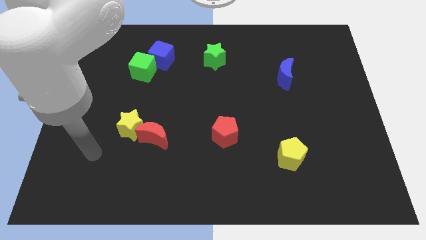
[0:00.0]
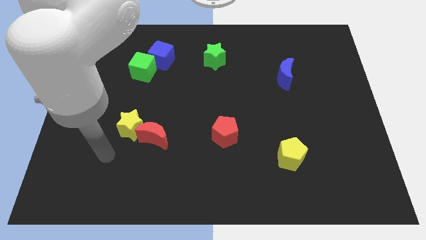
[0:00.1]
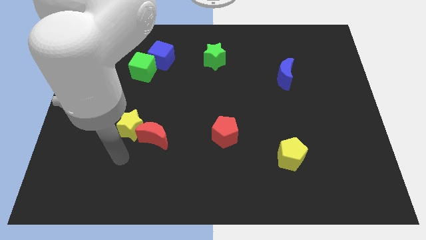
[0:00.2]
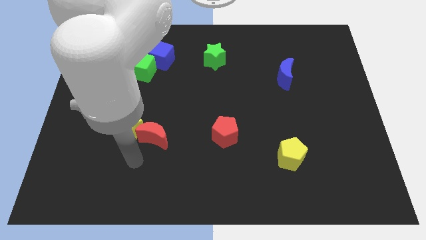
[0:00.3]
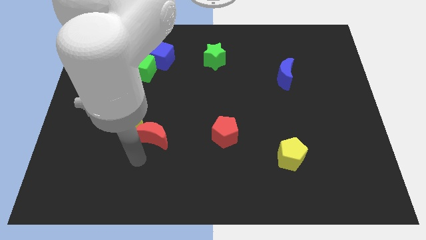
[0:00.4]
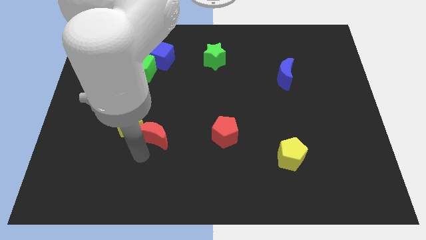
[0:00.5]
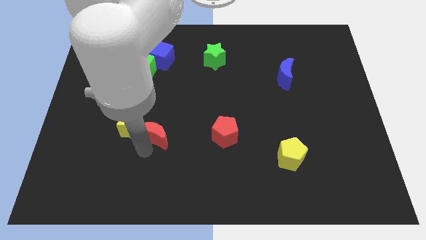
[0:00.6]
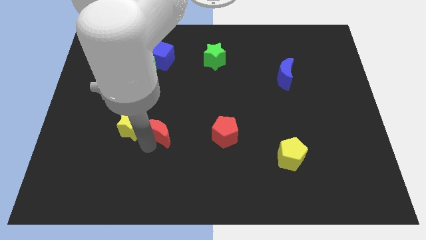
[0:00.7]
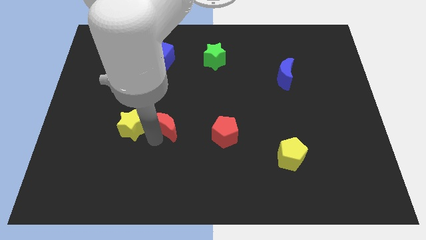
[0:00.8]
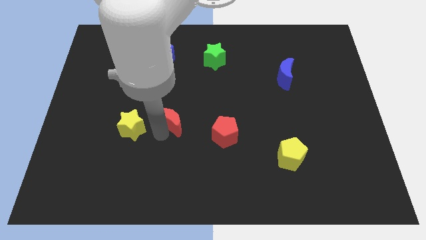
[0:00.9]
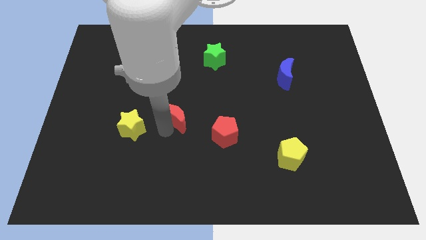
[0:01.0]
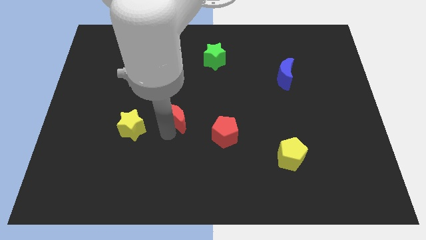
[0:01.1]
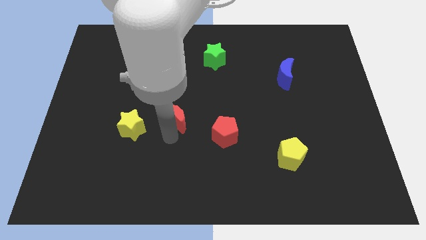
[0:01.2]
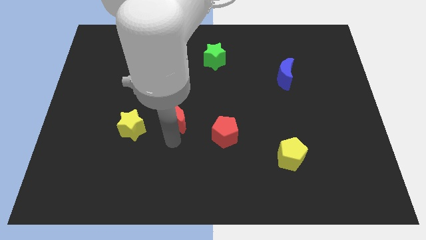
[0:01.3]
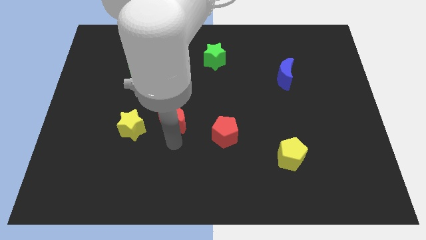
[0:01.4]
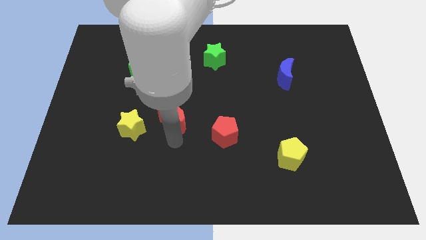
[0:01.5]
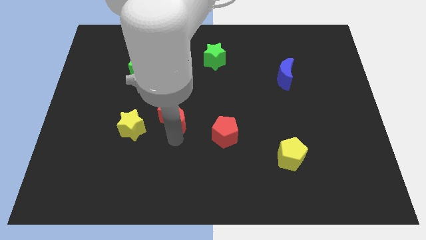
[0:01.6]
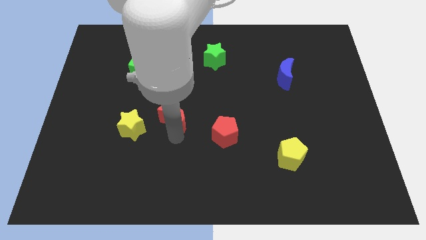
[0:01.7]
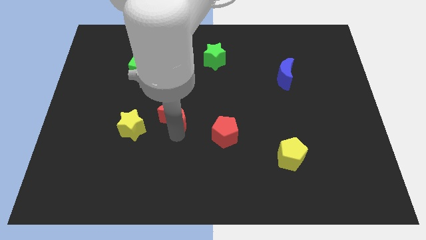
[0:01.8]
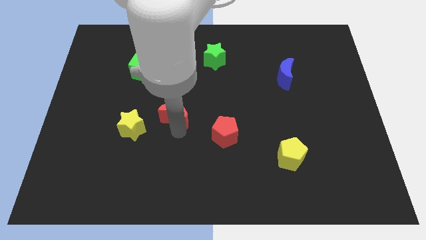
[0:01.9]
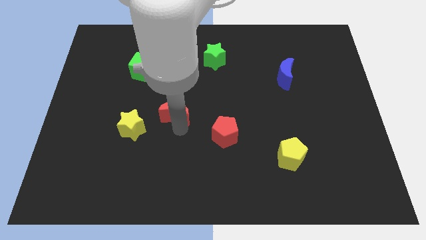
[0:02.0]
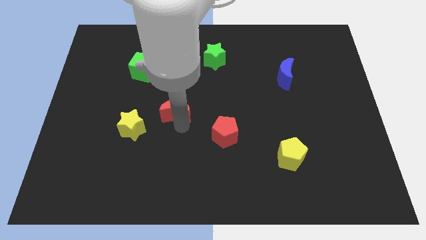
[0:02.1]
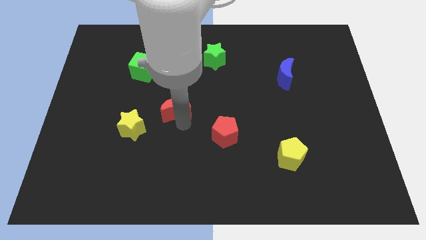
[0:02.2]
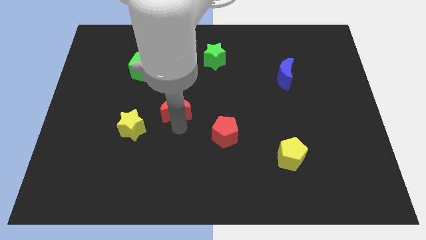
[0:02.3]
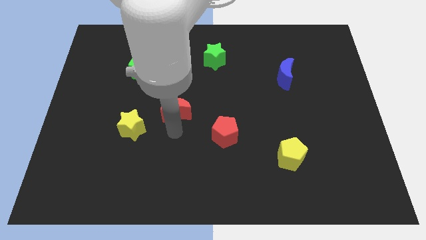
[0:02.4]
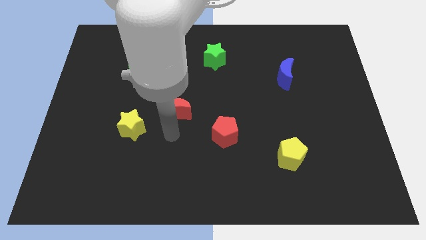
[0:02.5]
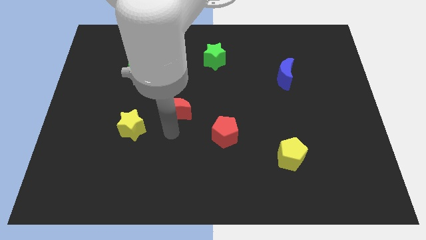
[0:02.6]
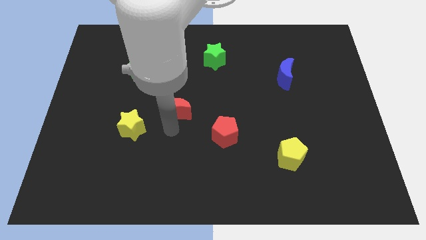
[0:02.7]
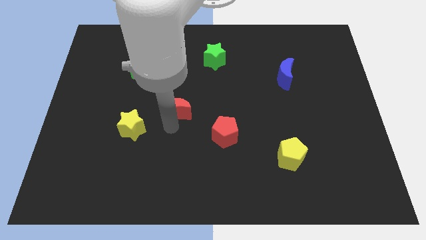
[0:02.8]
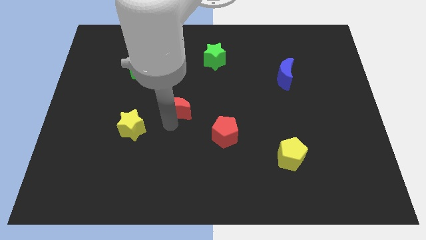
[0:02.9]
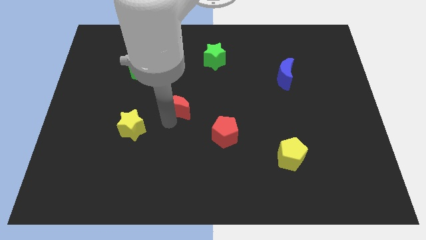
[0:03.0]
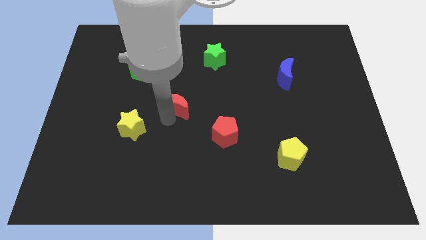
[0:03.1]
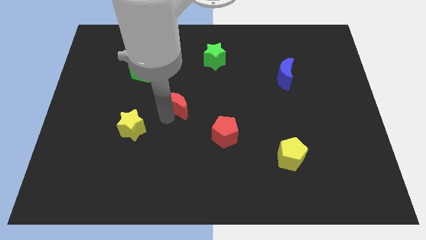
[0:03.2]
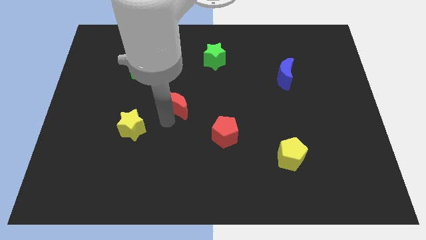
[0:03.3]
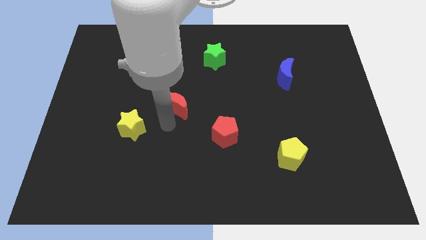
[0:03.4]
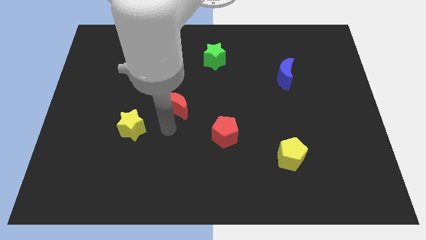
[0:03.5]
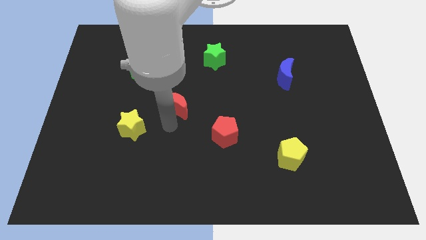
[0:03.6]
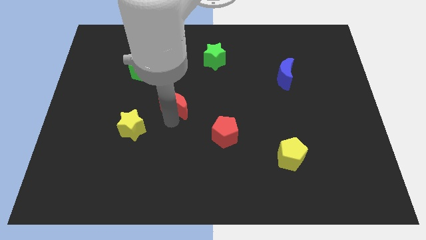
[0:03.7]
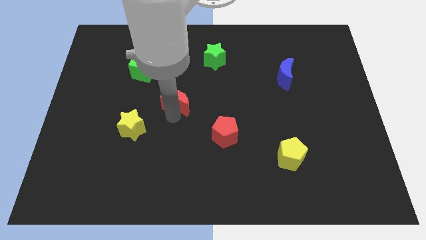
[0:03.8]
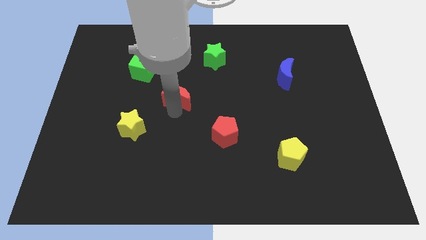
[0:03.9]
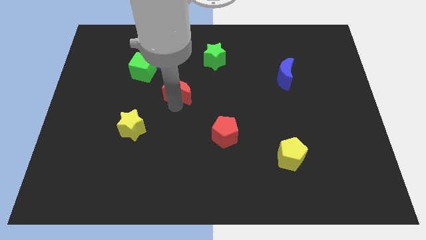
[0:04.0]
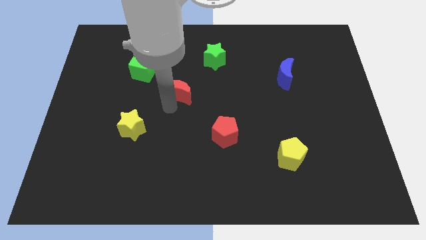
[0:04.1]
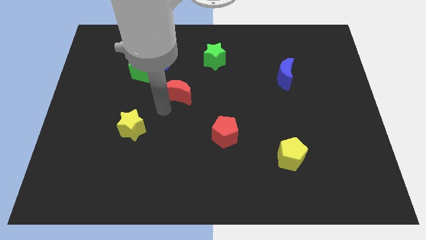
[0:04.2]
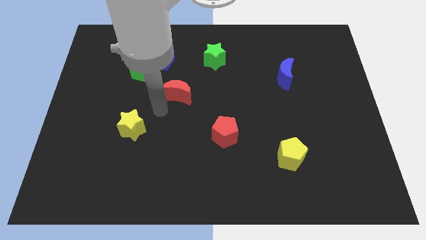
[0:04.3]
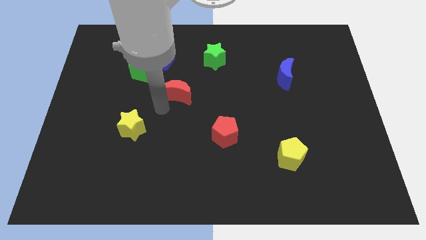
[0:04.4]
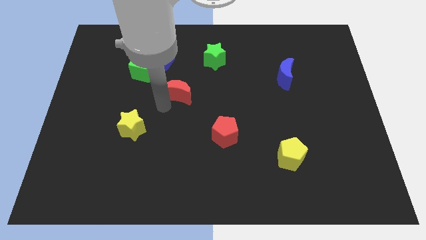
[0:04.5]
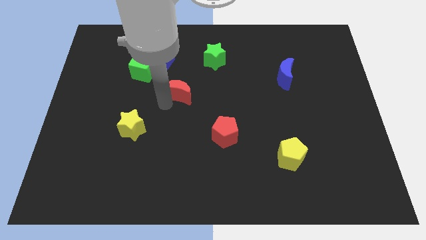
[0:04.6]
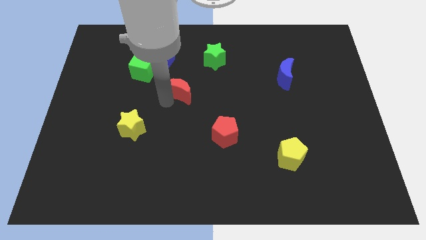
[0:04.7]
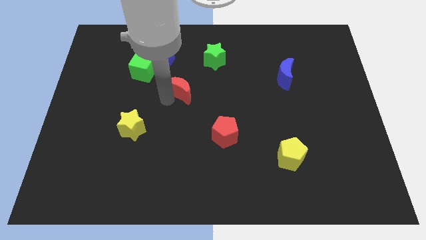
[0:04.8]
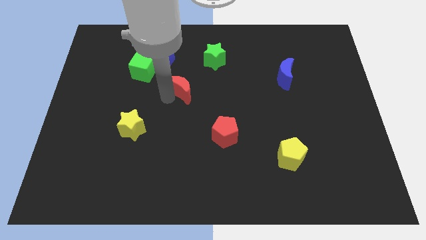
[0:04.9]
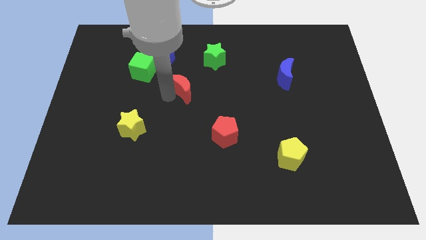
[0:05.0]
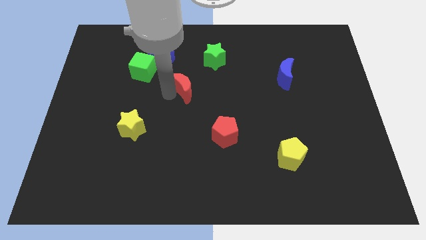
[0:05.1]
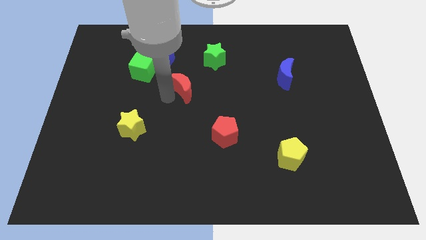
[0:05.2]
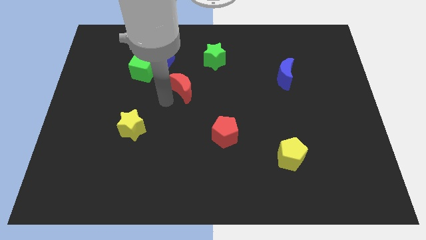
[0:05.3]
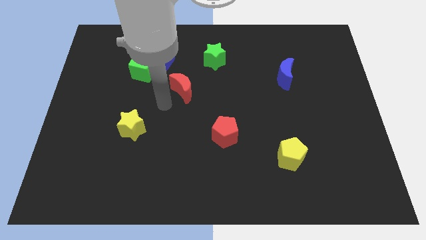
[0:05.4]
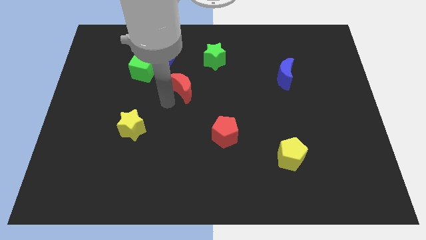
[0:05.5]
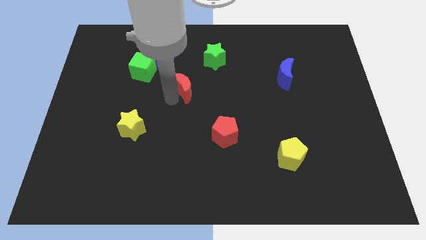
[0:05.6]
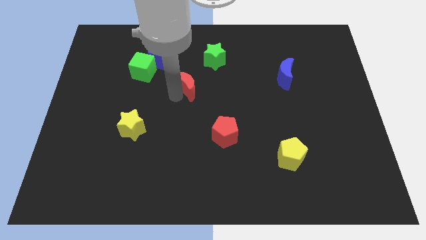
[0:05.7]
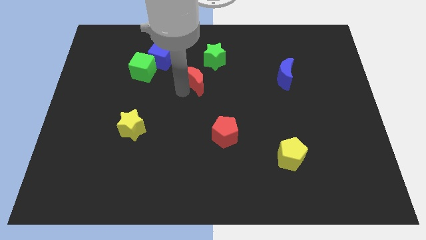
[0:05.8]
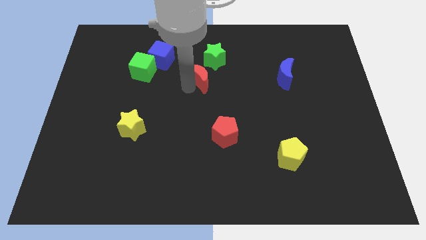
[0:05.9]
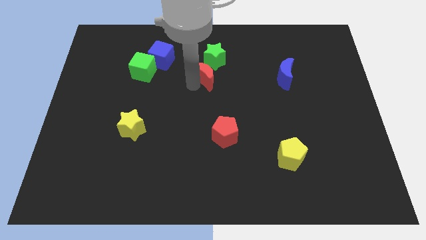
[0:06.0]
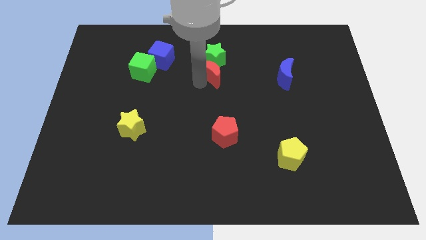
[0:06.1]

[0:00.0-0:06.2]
move the red moon towards the green star
